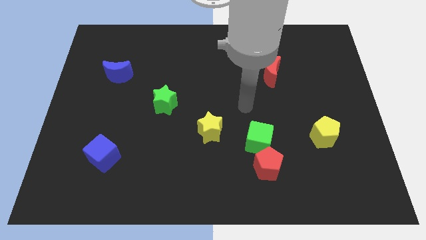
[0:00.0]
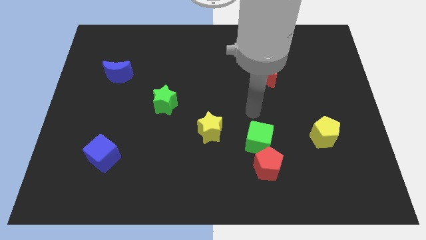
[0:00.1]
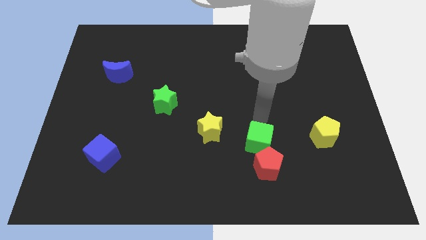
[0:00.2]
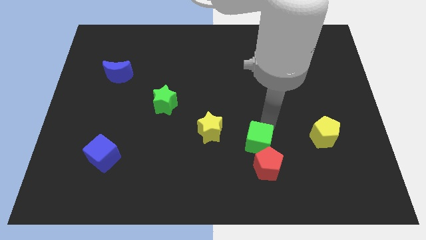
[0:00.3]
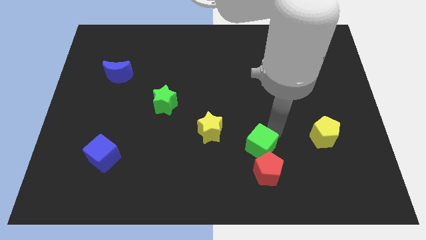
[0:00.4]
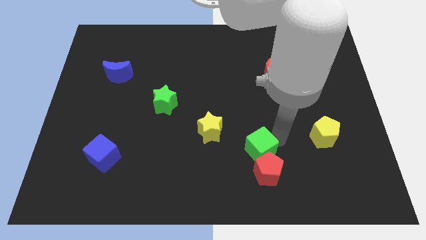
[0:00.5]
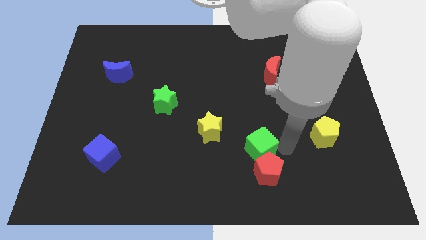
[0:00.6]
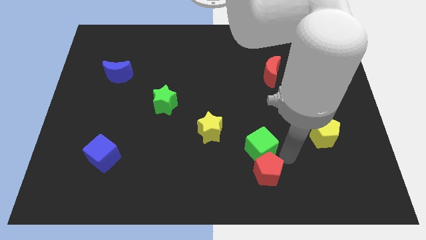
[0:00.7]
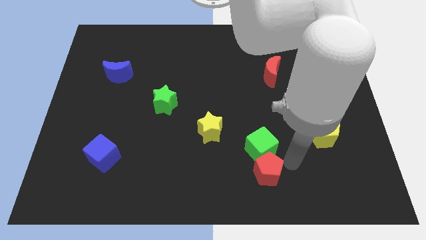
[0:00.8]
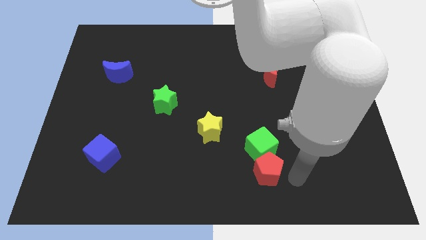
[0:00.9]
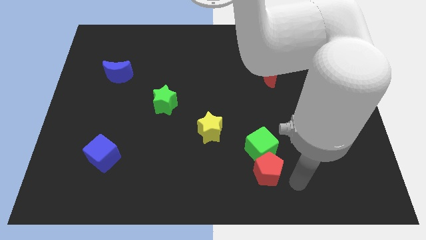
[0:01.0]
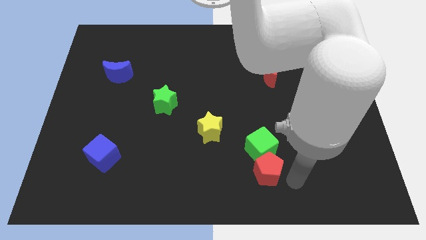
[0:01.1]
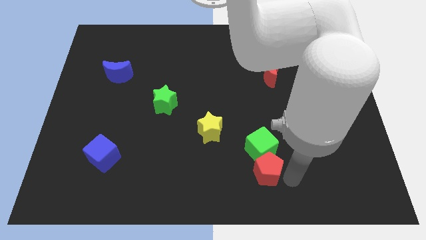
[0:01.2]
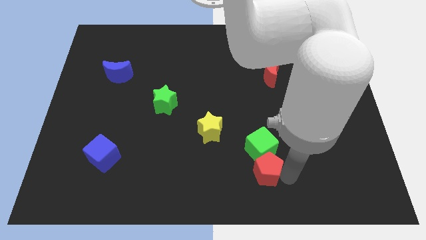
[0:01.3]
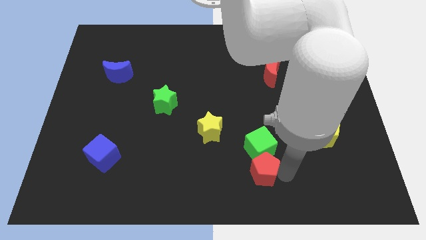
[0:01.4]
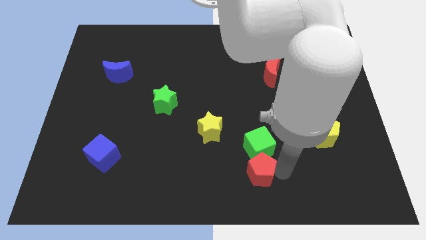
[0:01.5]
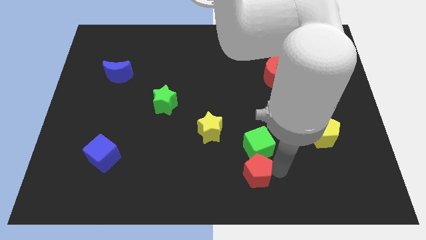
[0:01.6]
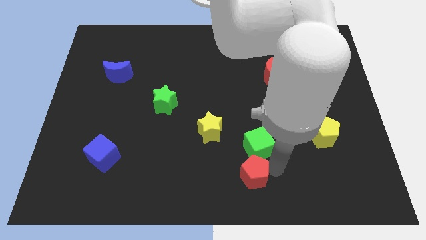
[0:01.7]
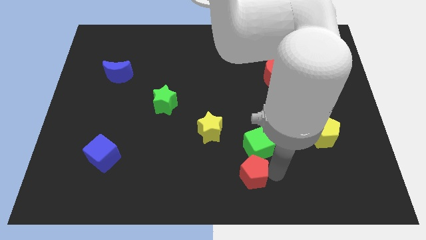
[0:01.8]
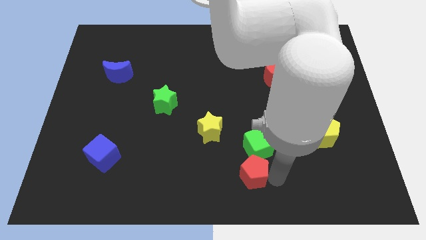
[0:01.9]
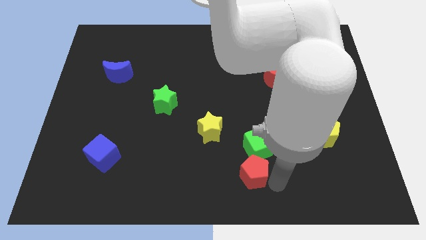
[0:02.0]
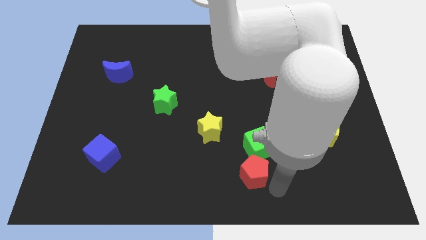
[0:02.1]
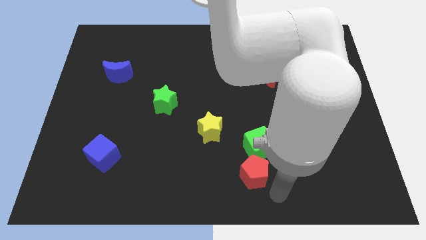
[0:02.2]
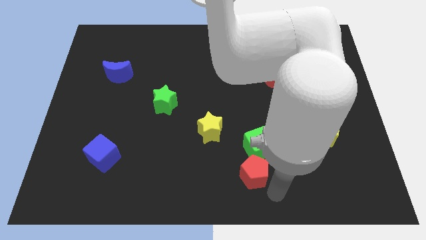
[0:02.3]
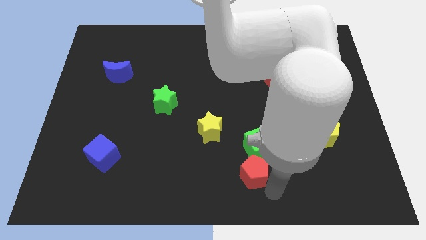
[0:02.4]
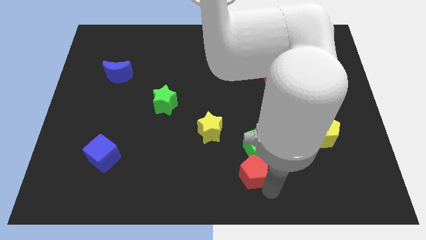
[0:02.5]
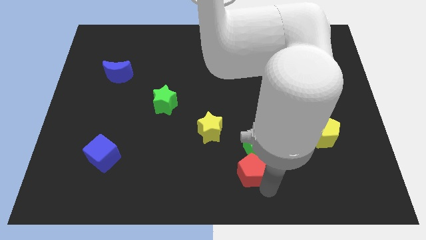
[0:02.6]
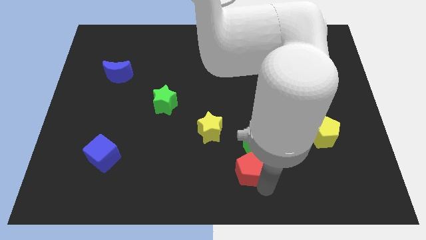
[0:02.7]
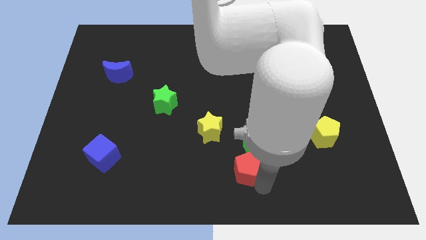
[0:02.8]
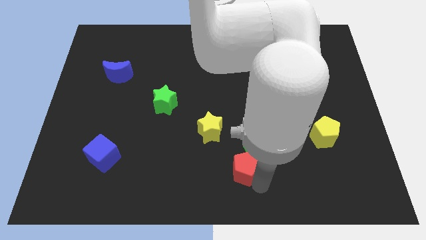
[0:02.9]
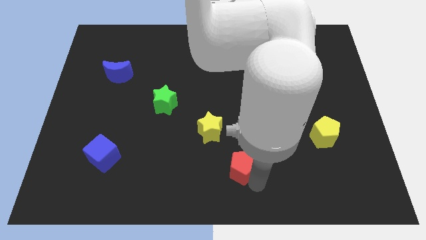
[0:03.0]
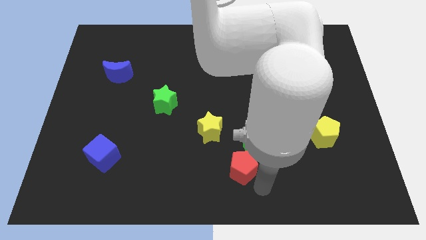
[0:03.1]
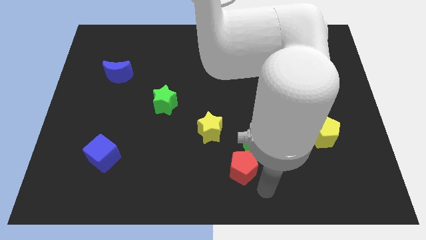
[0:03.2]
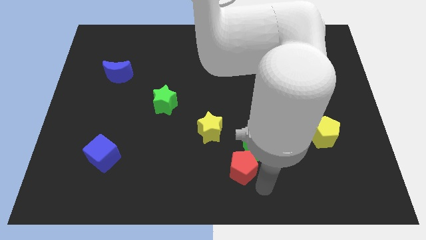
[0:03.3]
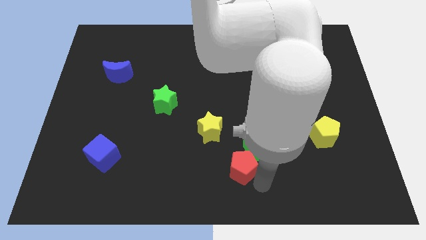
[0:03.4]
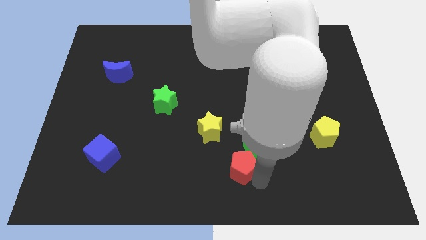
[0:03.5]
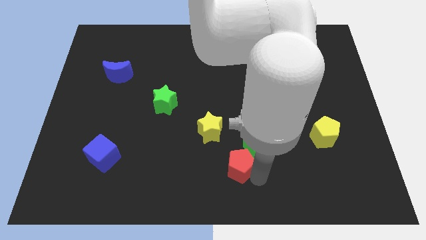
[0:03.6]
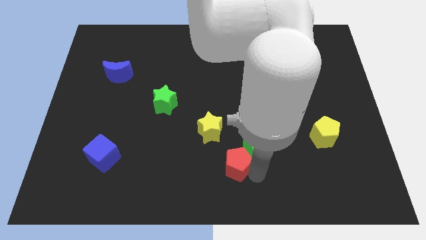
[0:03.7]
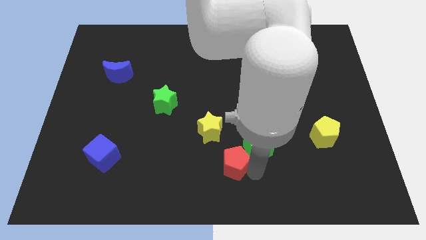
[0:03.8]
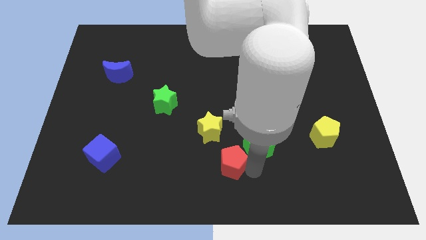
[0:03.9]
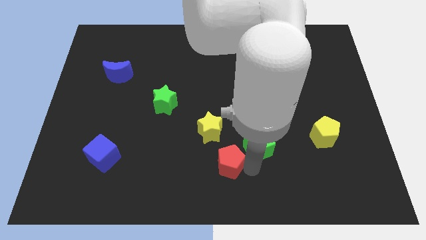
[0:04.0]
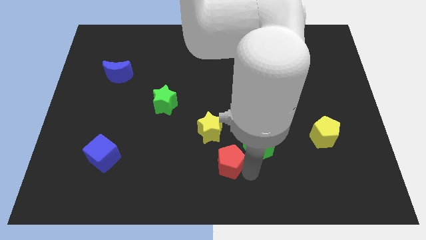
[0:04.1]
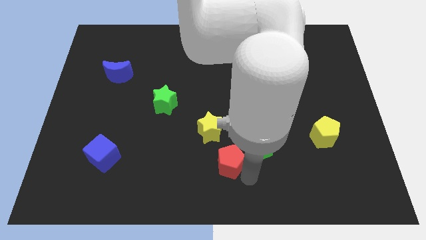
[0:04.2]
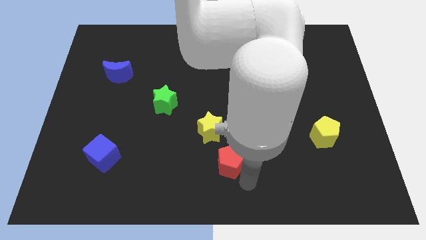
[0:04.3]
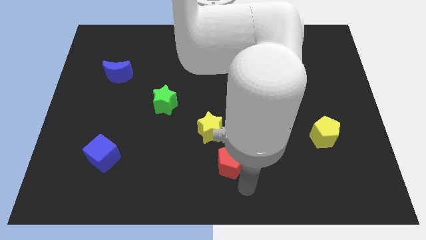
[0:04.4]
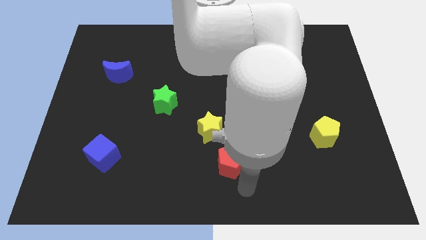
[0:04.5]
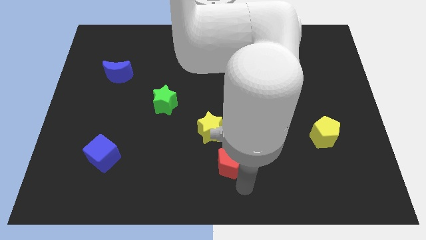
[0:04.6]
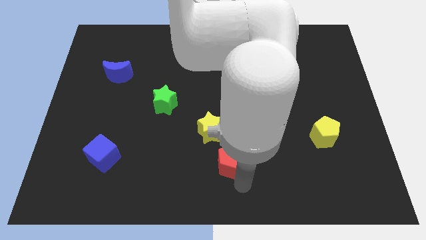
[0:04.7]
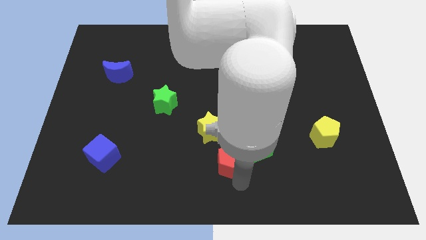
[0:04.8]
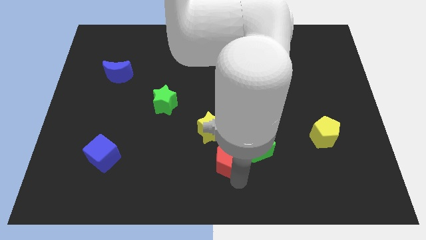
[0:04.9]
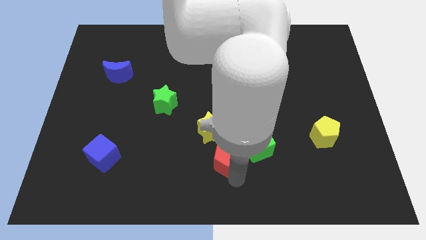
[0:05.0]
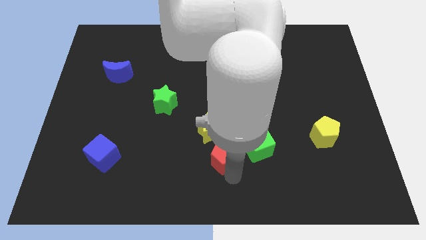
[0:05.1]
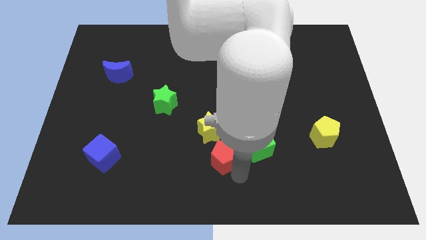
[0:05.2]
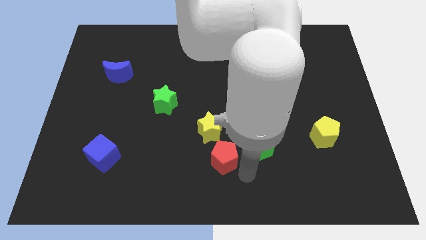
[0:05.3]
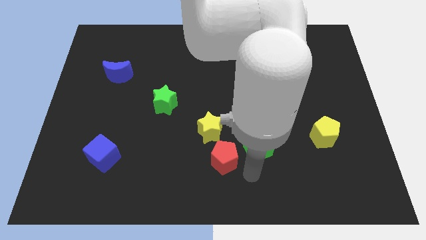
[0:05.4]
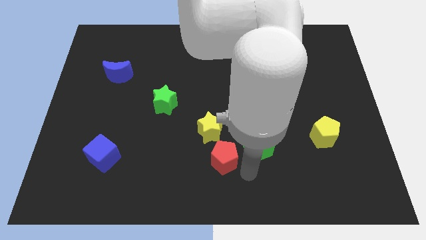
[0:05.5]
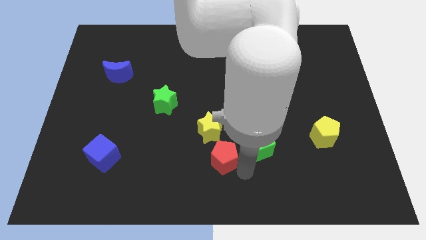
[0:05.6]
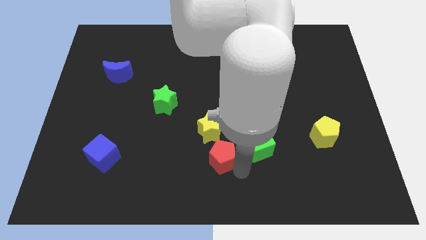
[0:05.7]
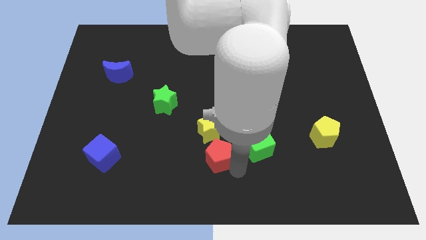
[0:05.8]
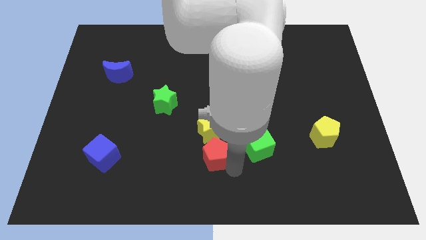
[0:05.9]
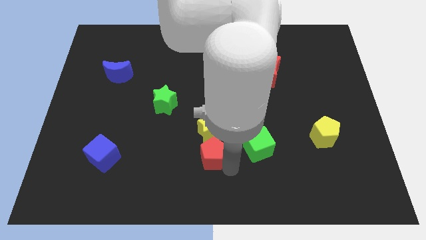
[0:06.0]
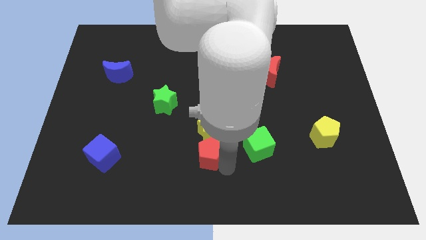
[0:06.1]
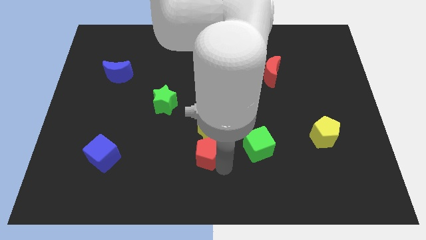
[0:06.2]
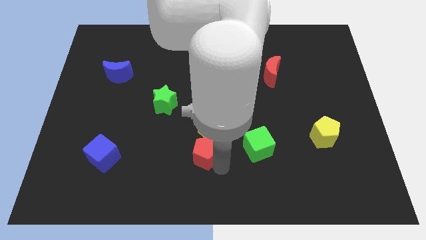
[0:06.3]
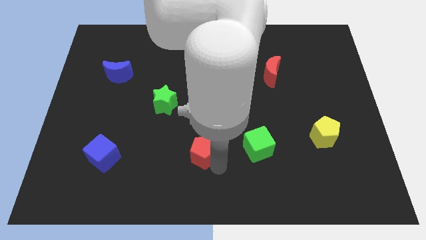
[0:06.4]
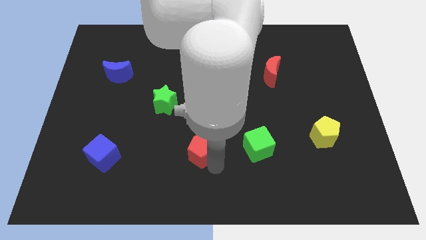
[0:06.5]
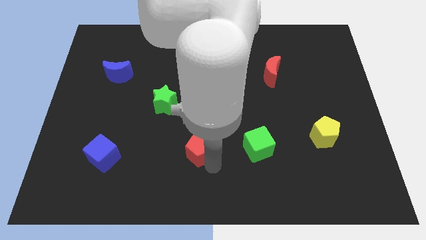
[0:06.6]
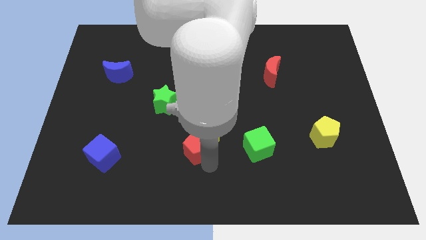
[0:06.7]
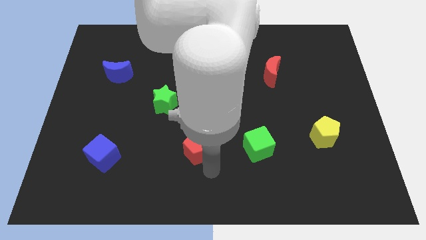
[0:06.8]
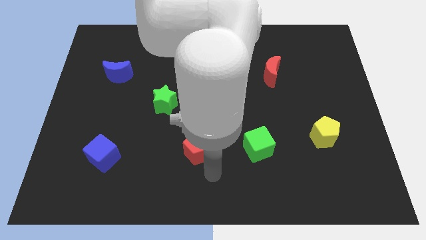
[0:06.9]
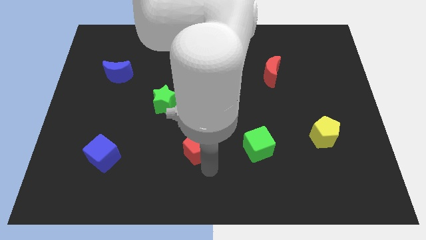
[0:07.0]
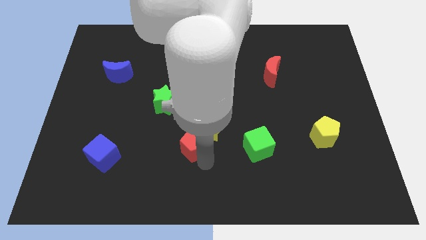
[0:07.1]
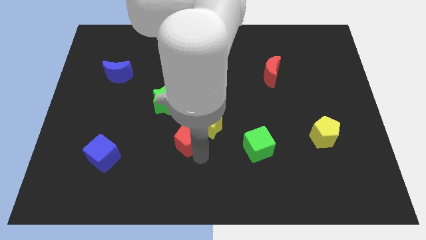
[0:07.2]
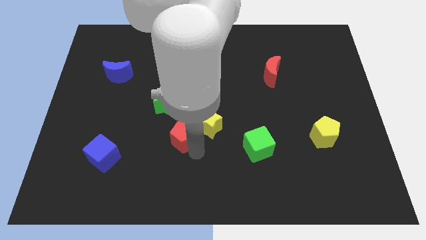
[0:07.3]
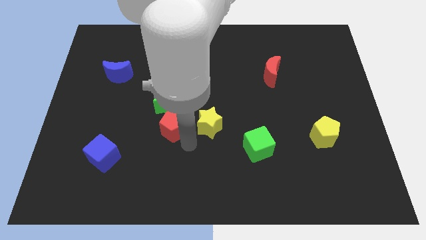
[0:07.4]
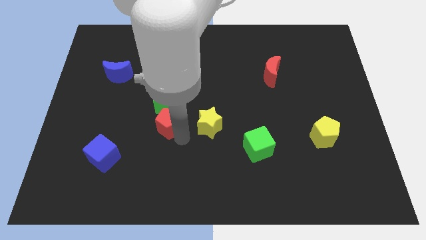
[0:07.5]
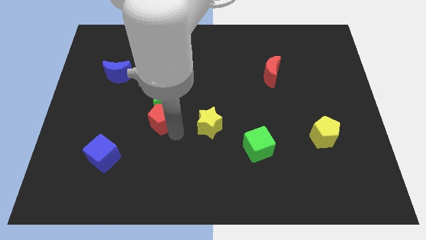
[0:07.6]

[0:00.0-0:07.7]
move the red pentagon close to the green star

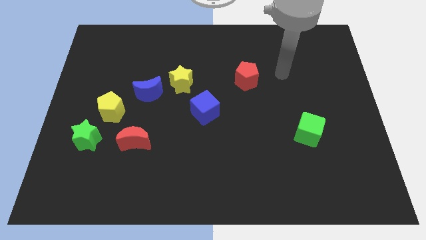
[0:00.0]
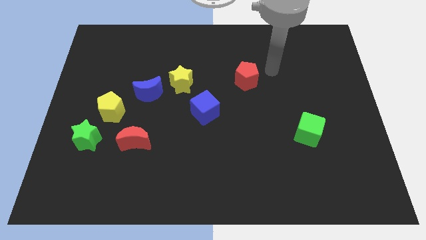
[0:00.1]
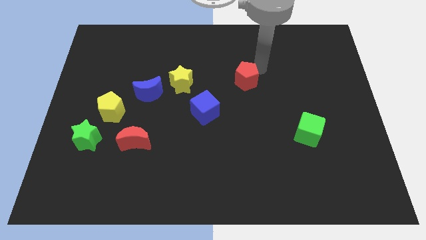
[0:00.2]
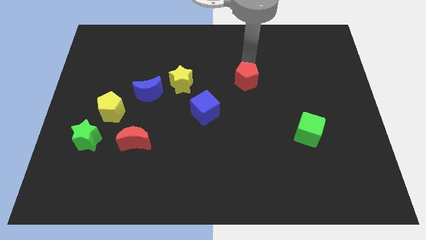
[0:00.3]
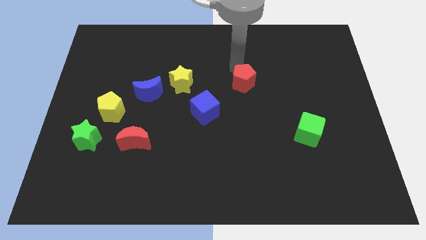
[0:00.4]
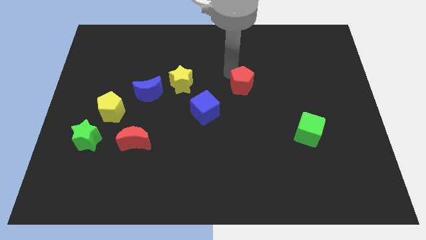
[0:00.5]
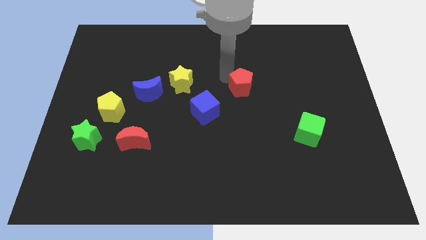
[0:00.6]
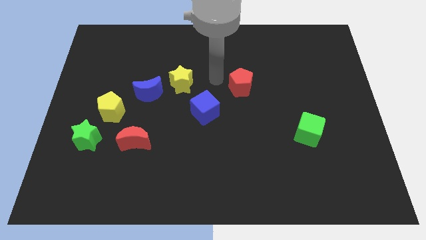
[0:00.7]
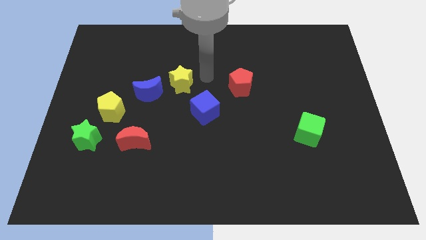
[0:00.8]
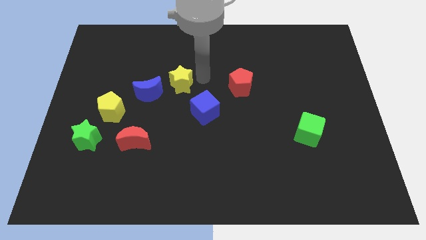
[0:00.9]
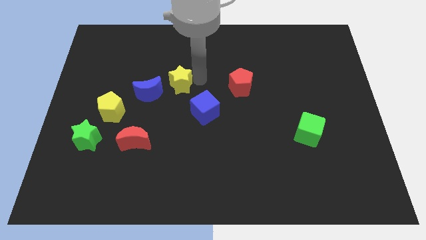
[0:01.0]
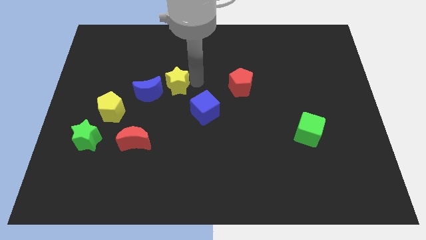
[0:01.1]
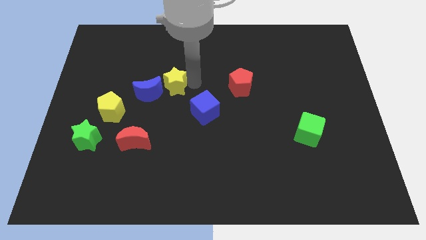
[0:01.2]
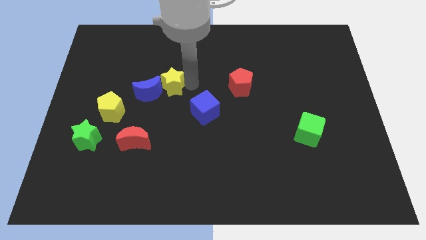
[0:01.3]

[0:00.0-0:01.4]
move the yellow star close to the blue moon
